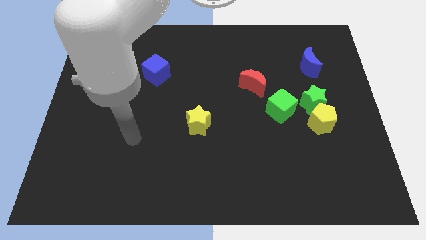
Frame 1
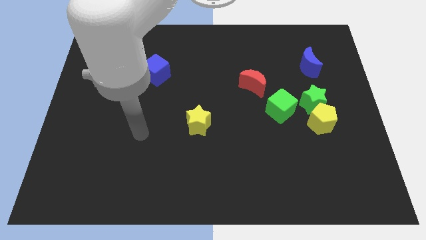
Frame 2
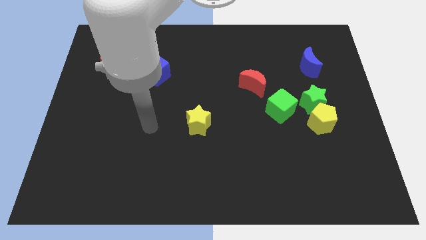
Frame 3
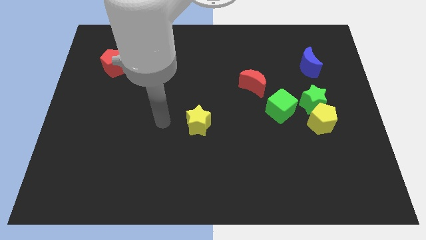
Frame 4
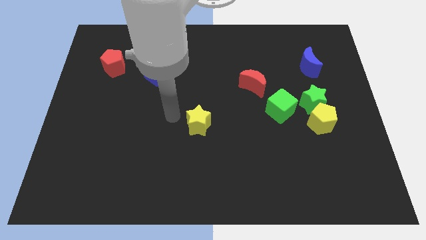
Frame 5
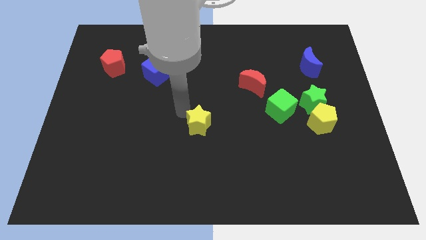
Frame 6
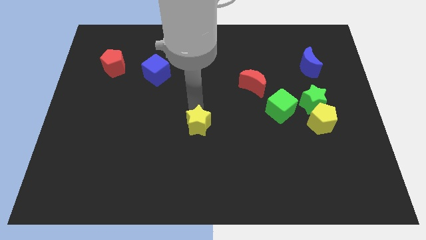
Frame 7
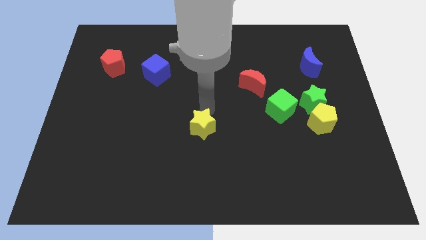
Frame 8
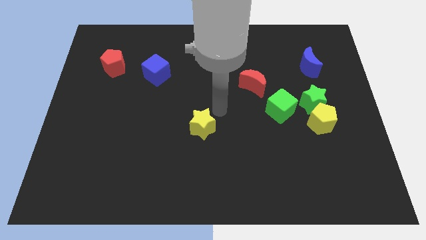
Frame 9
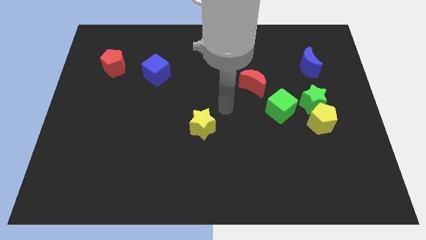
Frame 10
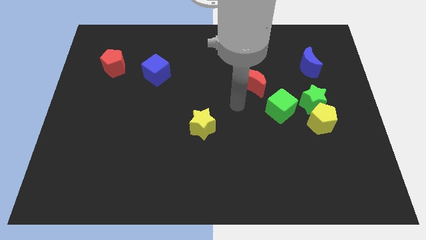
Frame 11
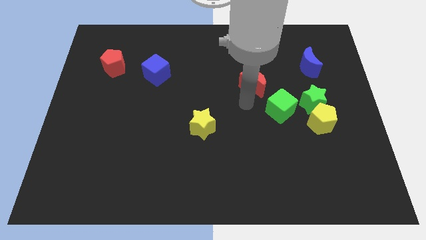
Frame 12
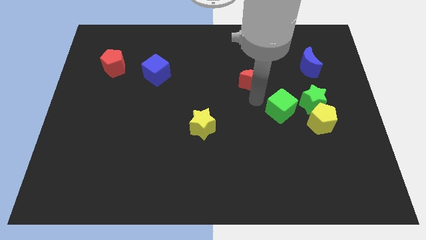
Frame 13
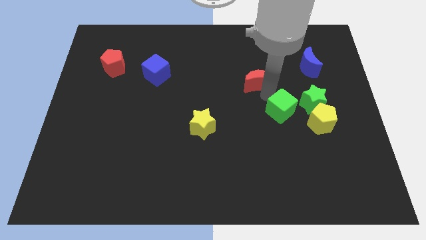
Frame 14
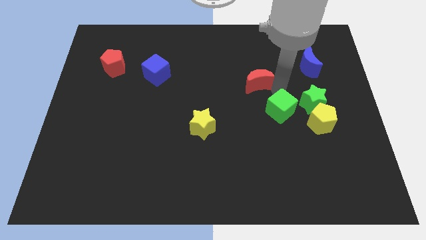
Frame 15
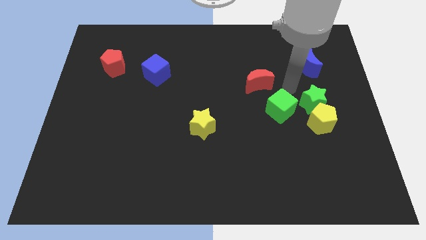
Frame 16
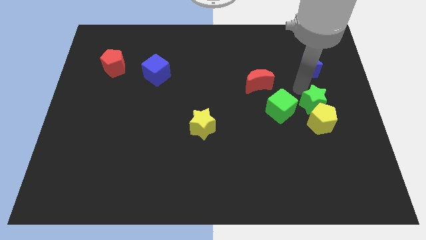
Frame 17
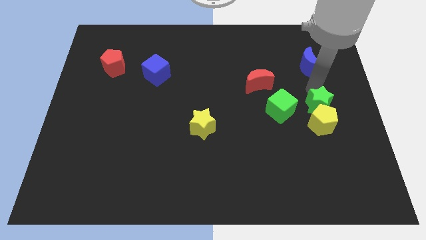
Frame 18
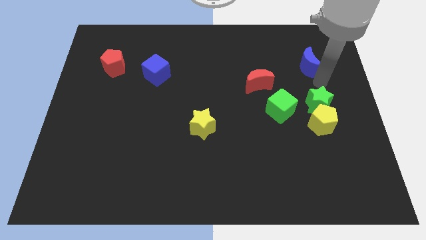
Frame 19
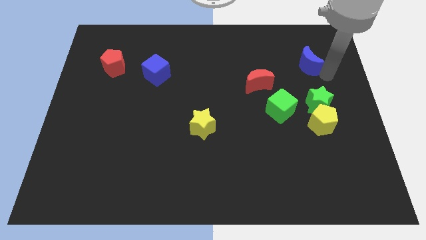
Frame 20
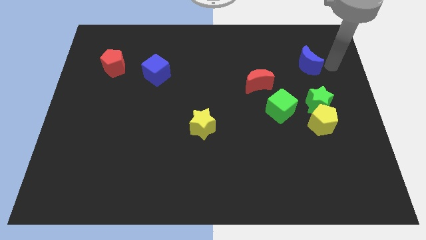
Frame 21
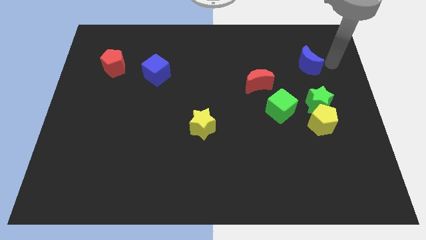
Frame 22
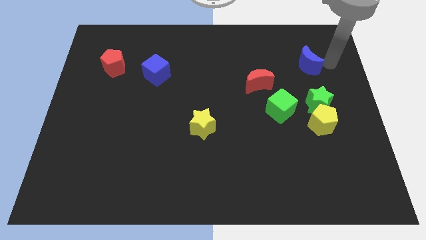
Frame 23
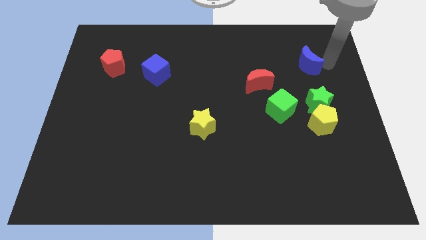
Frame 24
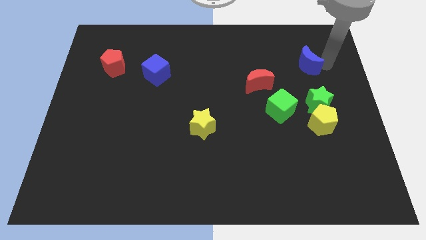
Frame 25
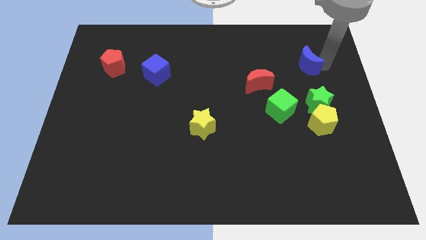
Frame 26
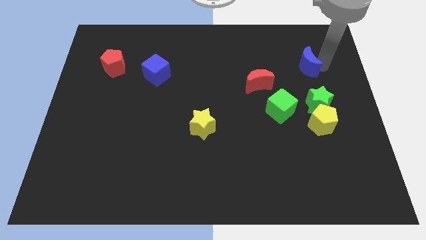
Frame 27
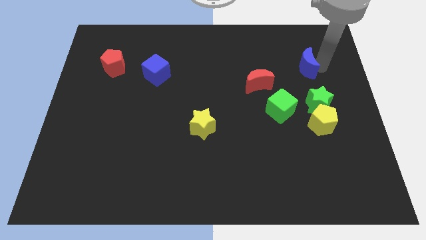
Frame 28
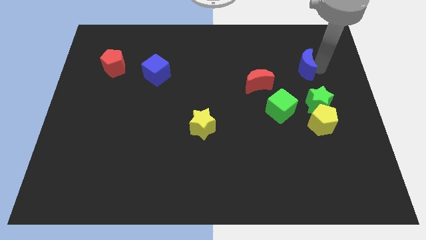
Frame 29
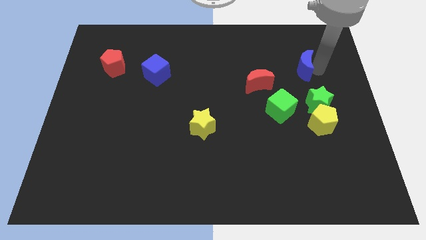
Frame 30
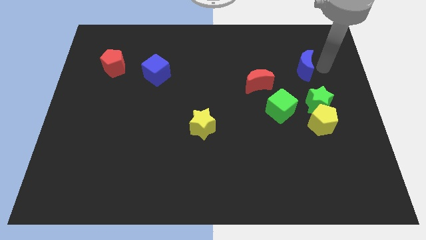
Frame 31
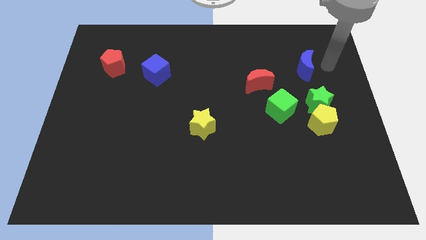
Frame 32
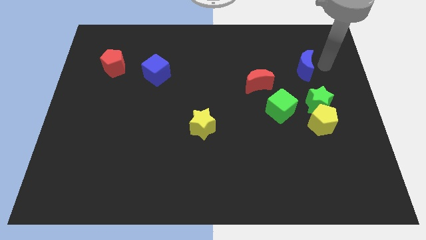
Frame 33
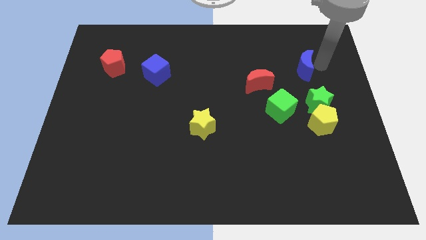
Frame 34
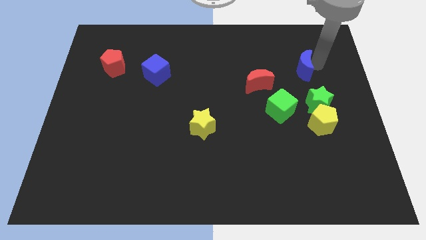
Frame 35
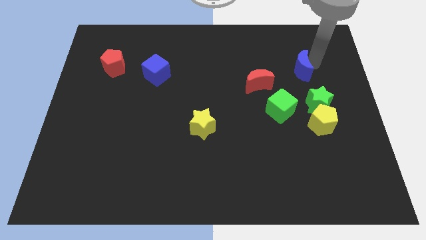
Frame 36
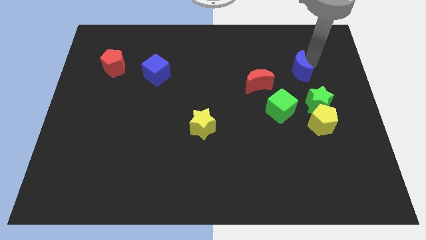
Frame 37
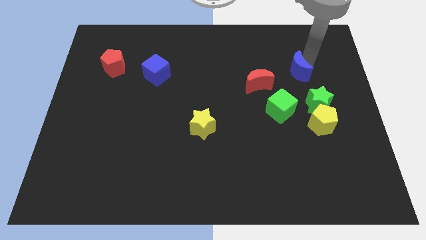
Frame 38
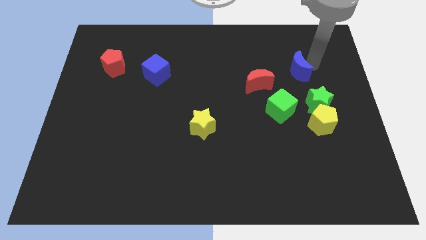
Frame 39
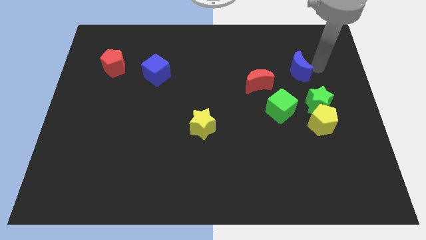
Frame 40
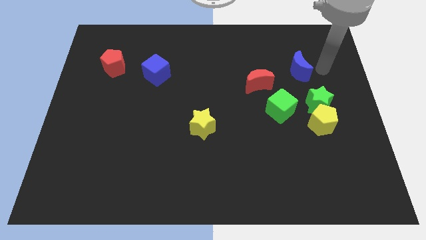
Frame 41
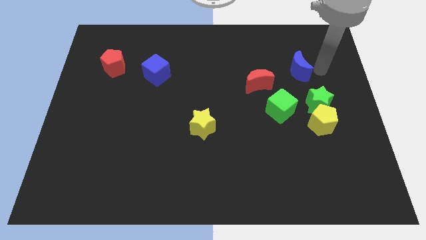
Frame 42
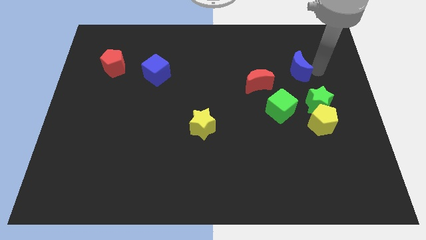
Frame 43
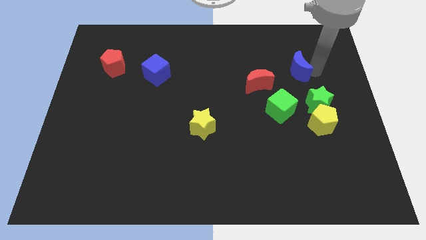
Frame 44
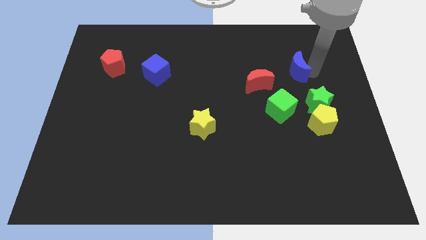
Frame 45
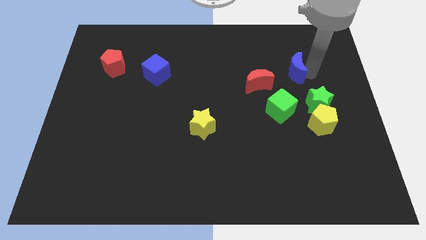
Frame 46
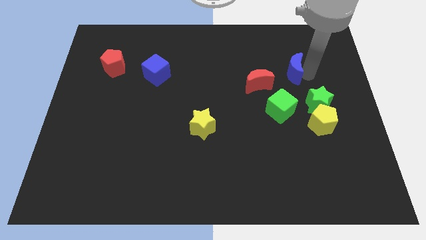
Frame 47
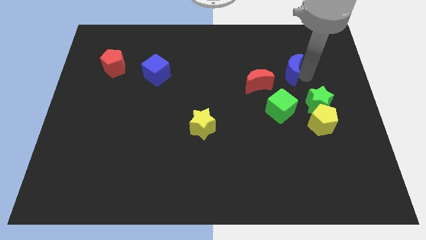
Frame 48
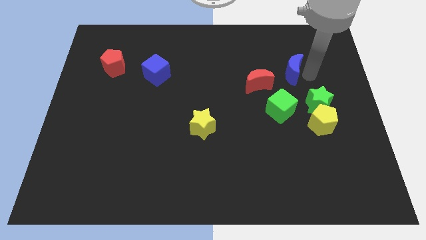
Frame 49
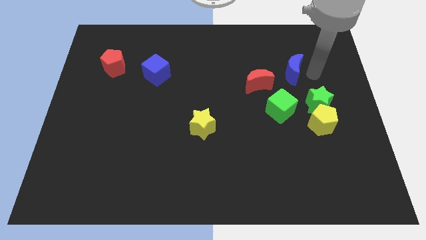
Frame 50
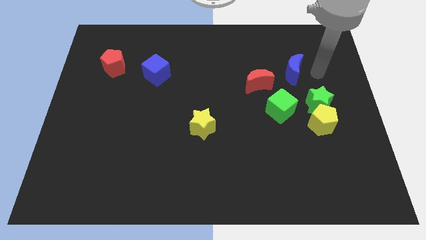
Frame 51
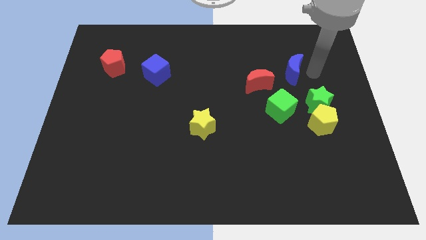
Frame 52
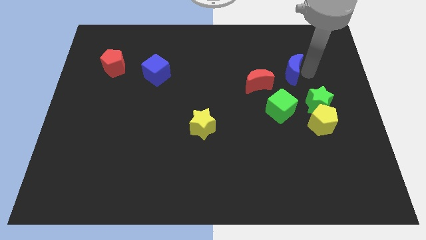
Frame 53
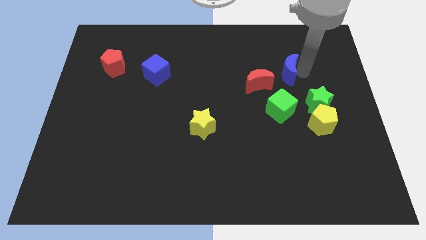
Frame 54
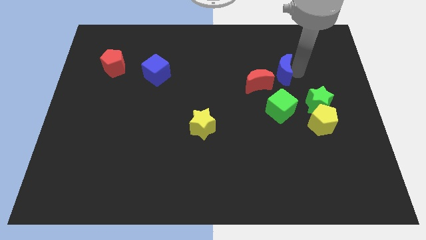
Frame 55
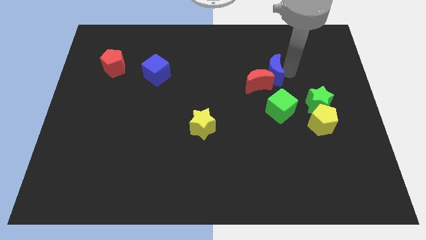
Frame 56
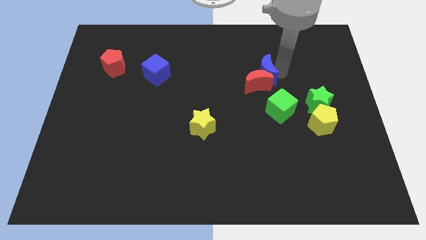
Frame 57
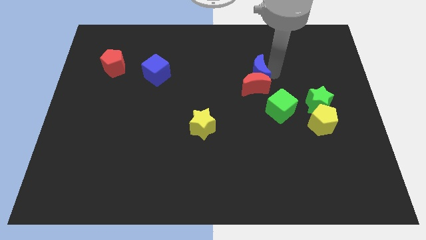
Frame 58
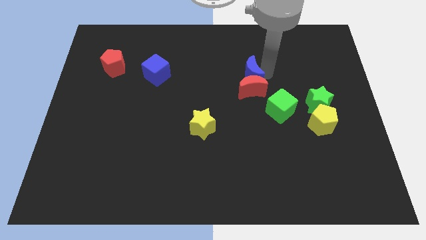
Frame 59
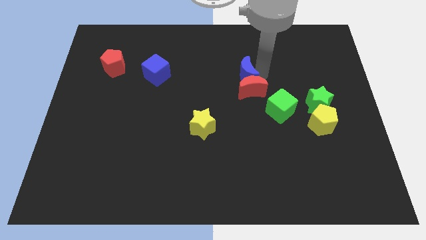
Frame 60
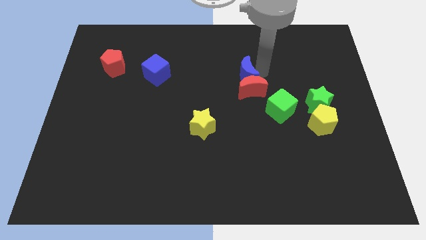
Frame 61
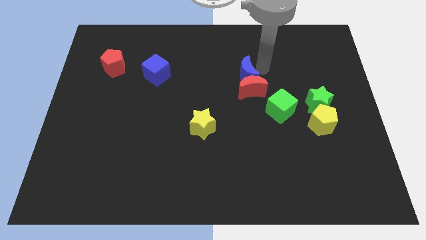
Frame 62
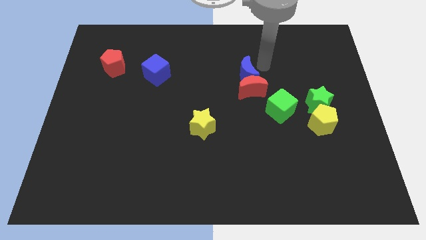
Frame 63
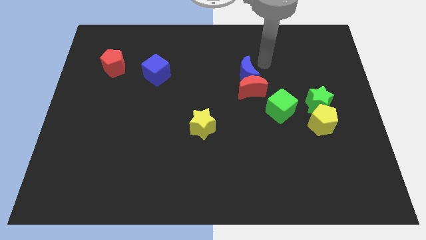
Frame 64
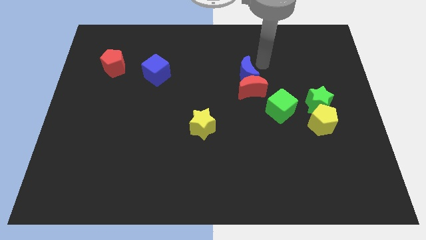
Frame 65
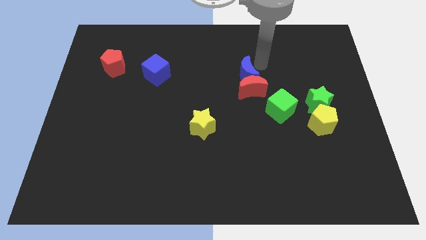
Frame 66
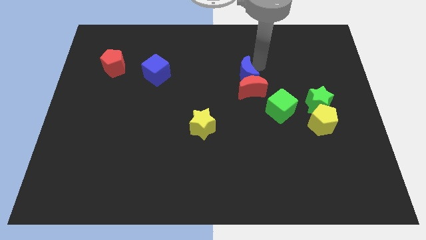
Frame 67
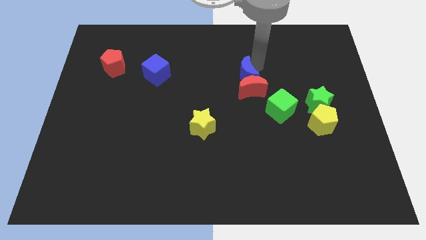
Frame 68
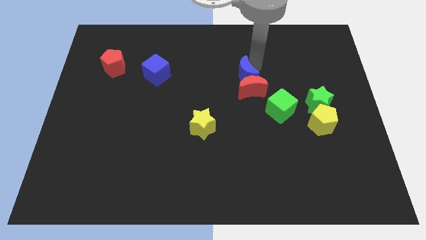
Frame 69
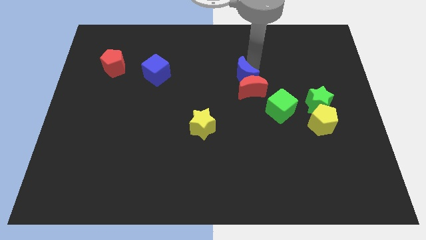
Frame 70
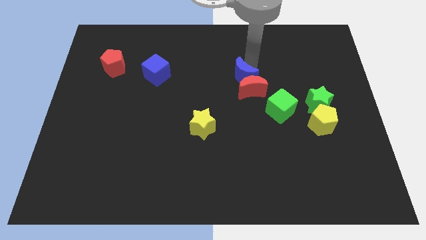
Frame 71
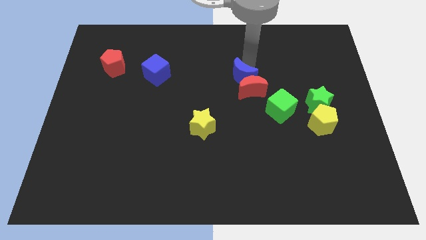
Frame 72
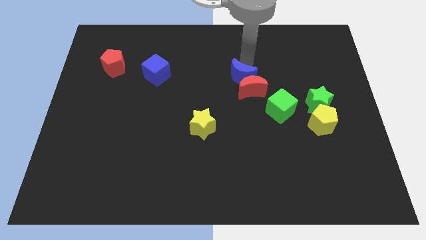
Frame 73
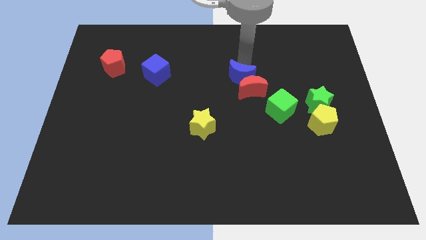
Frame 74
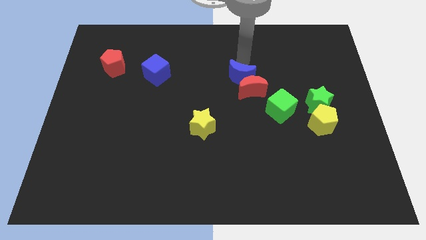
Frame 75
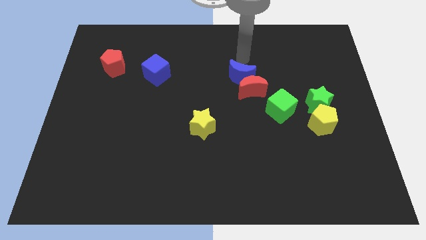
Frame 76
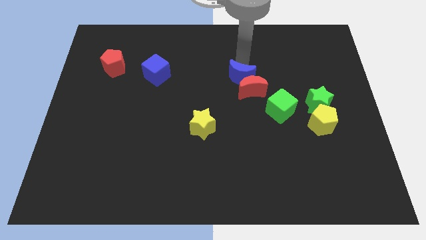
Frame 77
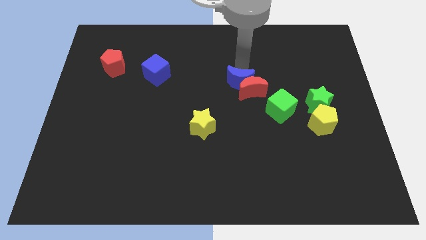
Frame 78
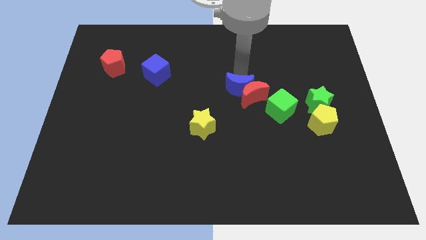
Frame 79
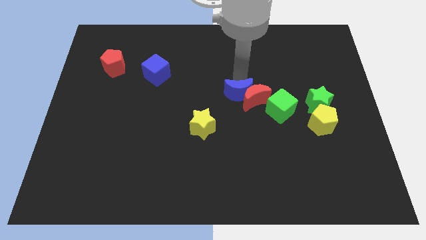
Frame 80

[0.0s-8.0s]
push the blue moon to the left side of the green cube
